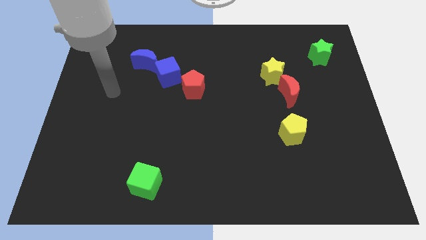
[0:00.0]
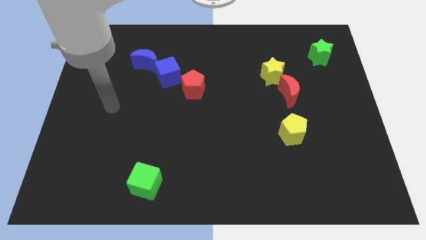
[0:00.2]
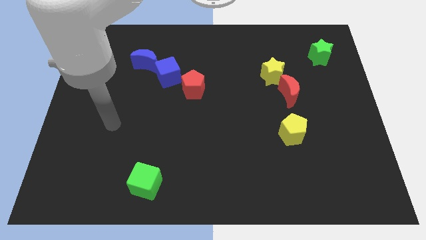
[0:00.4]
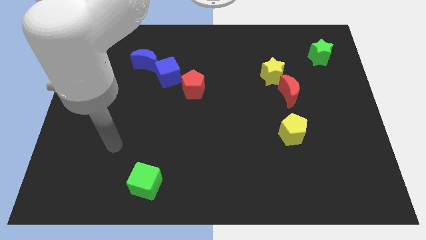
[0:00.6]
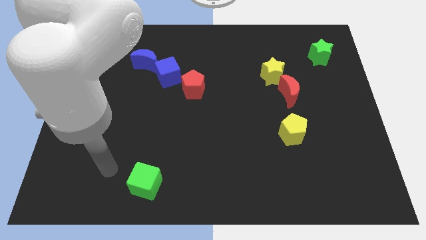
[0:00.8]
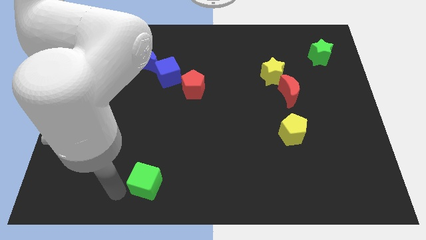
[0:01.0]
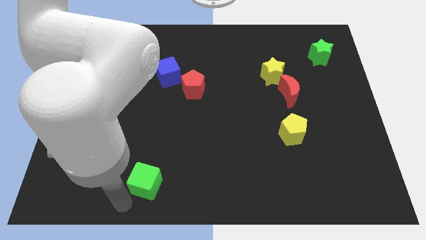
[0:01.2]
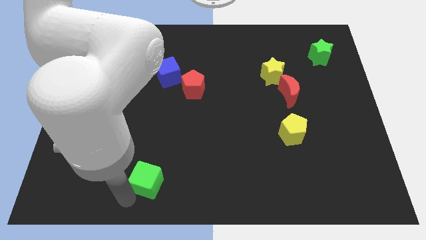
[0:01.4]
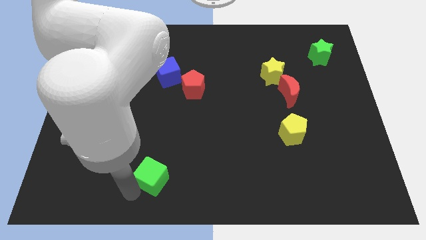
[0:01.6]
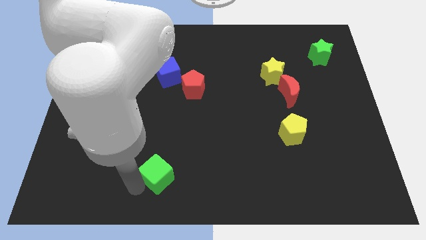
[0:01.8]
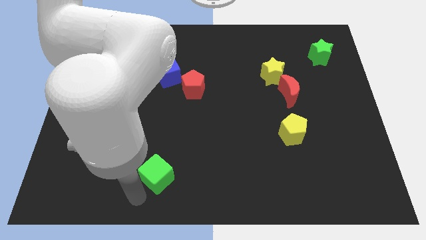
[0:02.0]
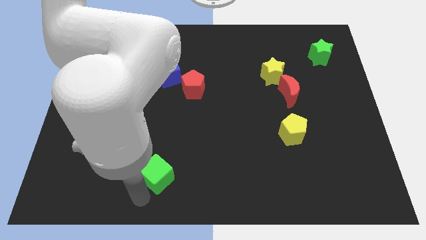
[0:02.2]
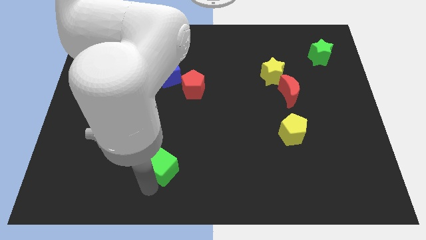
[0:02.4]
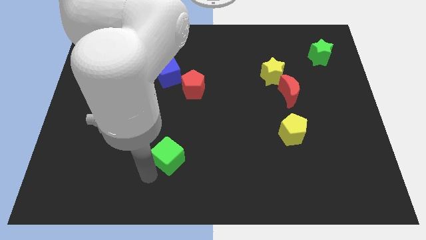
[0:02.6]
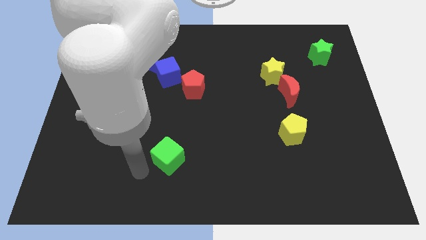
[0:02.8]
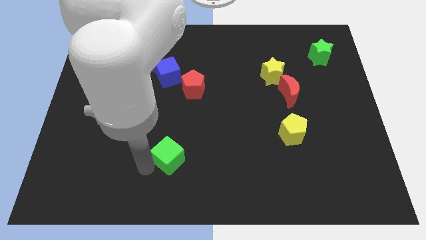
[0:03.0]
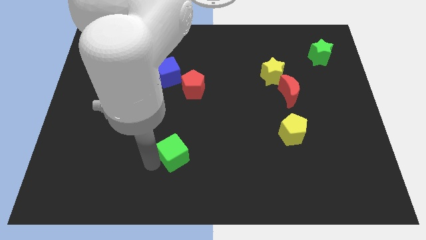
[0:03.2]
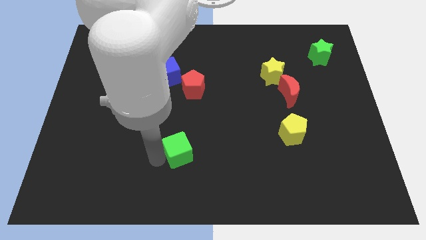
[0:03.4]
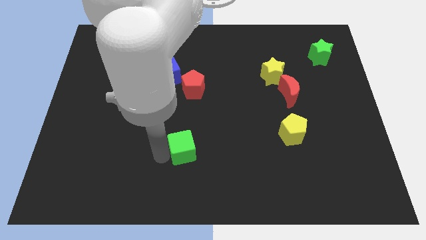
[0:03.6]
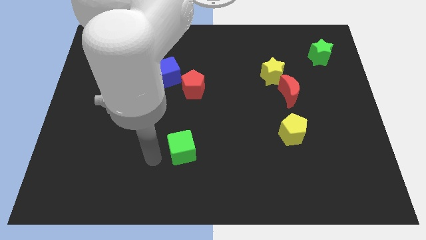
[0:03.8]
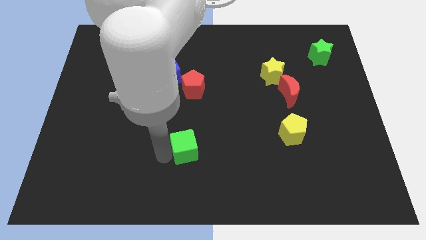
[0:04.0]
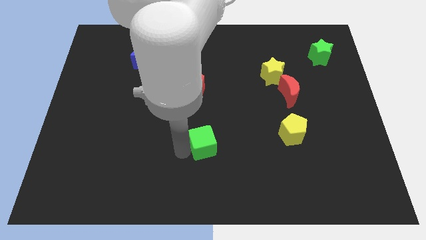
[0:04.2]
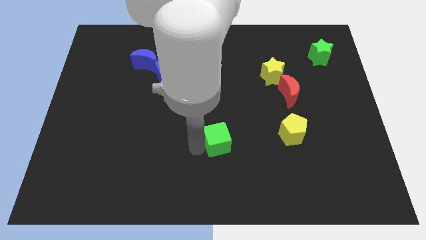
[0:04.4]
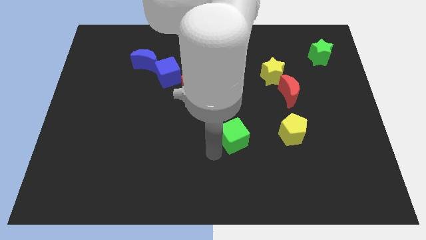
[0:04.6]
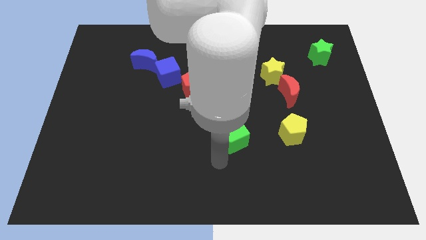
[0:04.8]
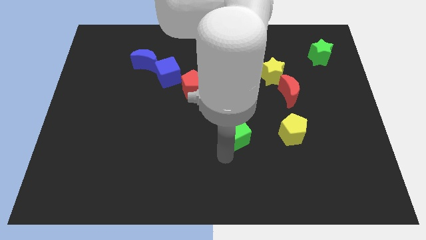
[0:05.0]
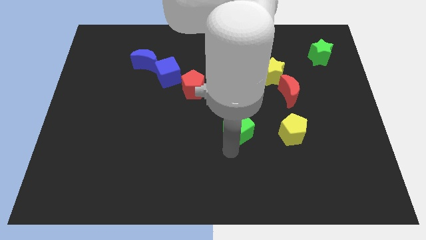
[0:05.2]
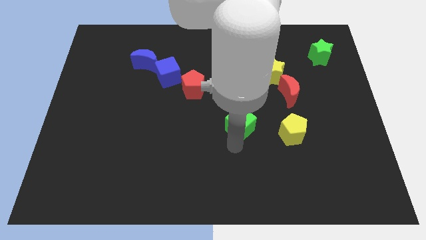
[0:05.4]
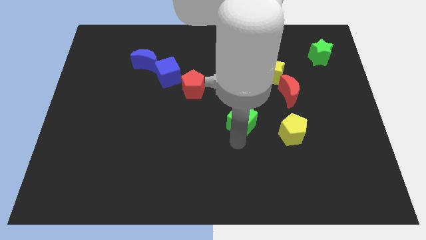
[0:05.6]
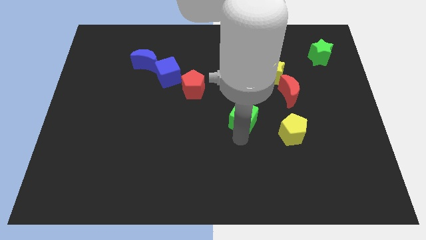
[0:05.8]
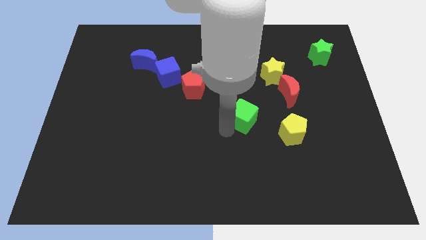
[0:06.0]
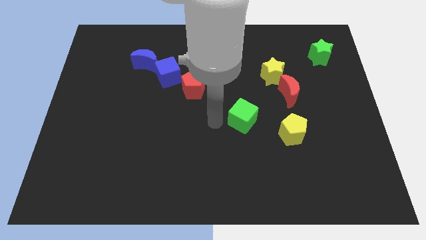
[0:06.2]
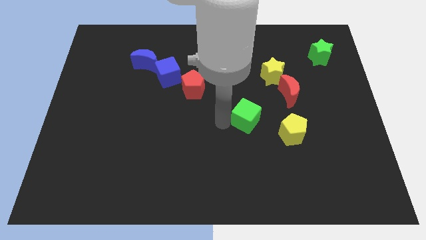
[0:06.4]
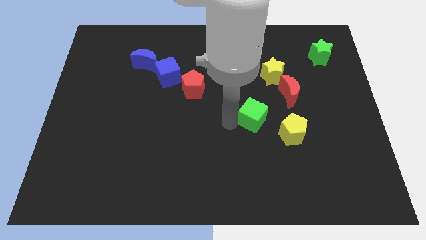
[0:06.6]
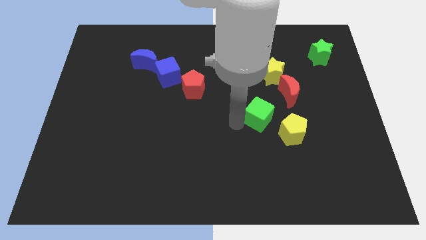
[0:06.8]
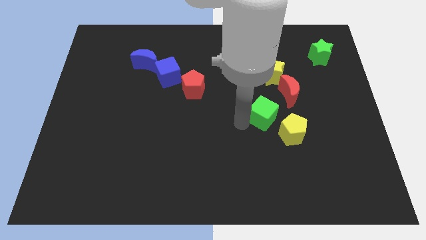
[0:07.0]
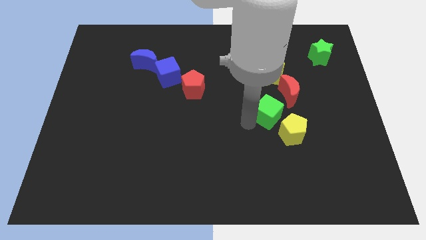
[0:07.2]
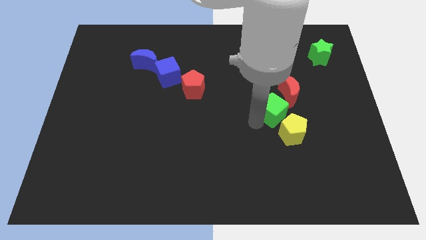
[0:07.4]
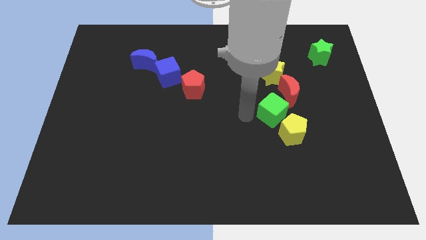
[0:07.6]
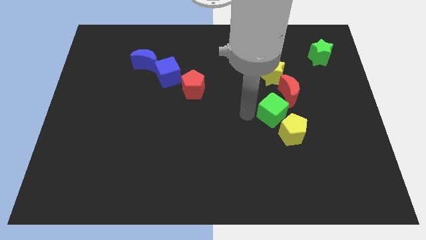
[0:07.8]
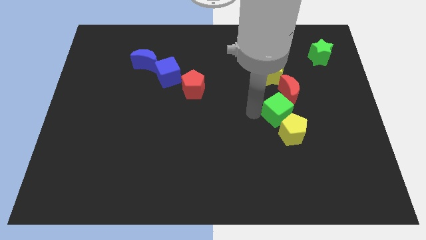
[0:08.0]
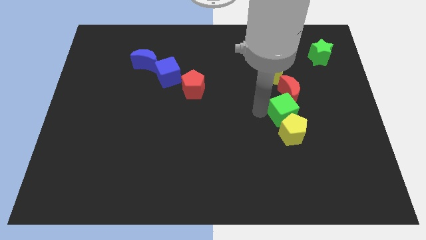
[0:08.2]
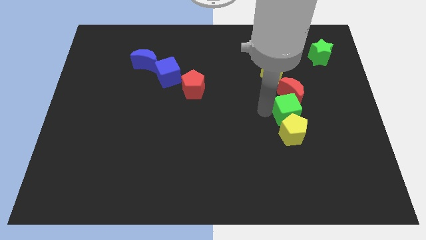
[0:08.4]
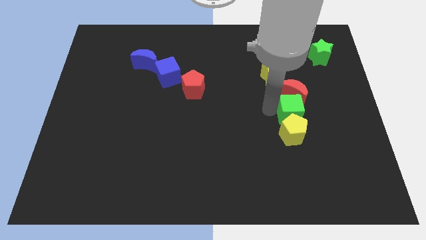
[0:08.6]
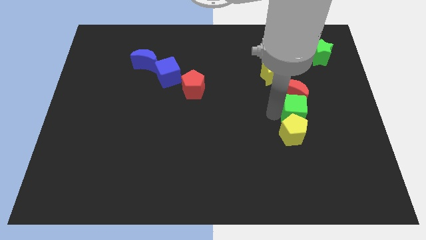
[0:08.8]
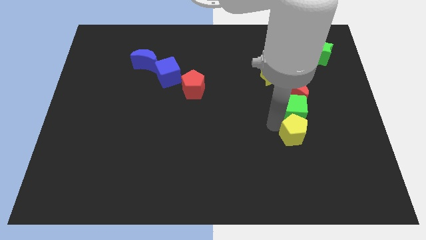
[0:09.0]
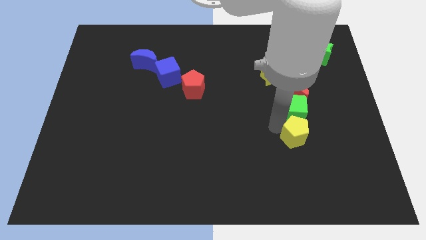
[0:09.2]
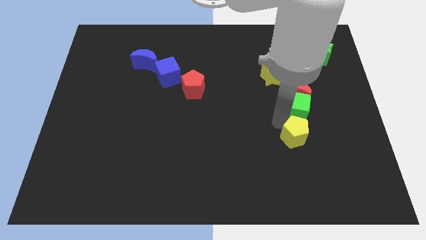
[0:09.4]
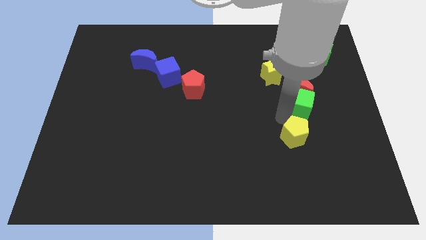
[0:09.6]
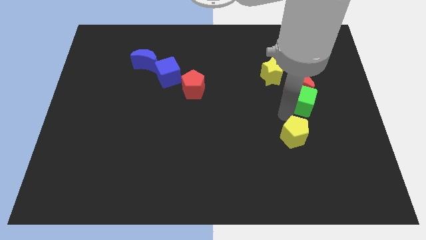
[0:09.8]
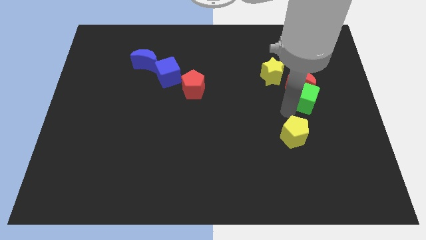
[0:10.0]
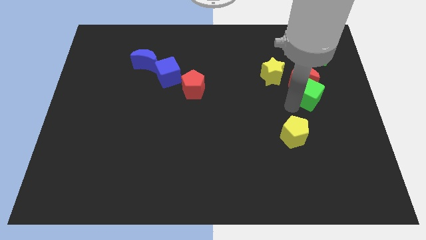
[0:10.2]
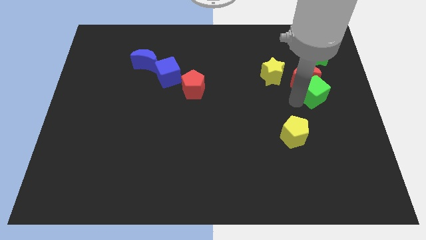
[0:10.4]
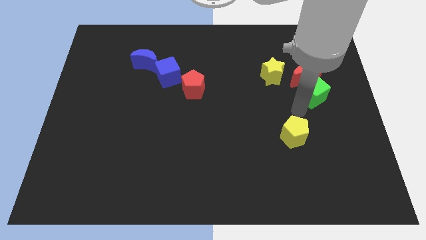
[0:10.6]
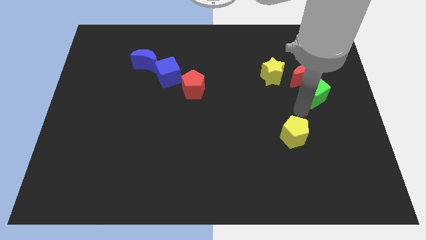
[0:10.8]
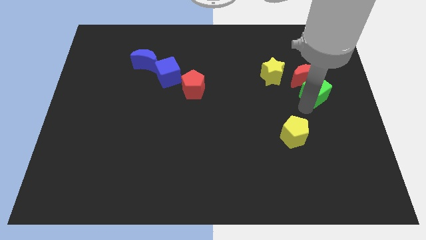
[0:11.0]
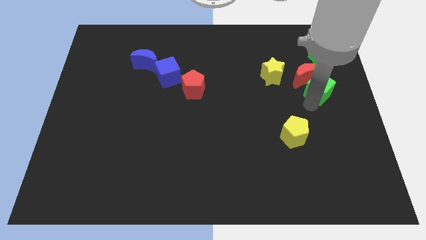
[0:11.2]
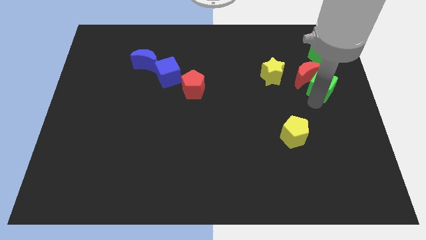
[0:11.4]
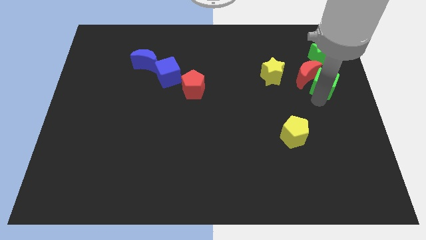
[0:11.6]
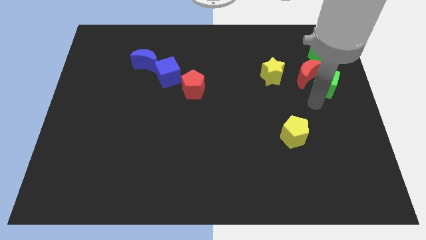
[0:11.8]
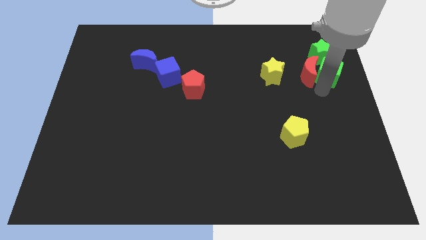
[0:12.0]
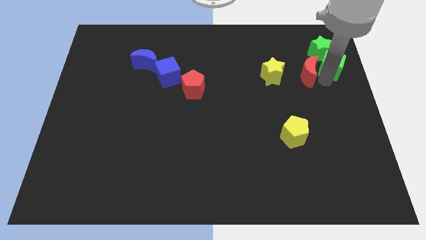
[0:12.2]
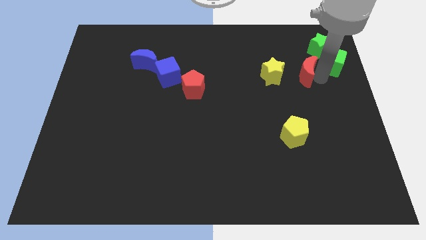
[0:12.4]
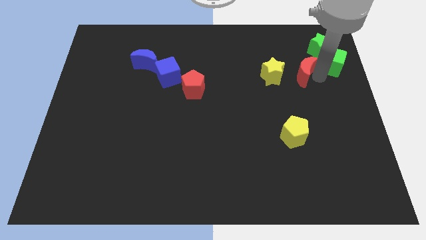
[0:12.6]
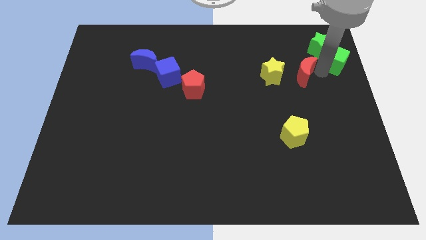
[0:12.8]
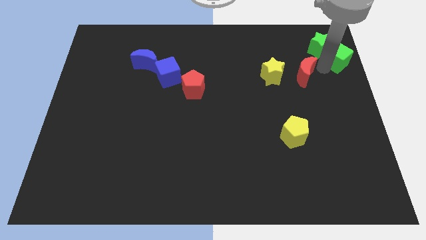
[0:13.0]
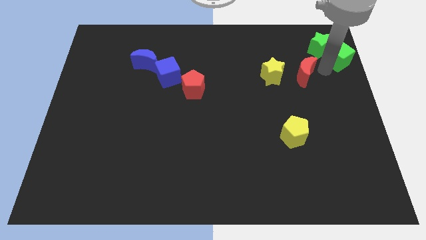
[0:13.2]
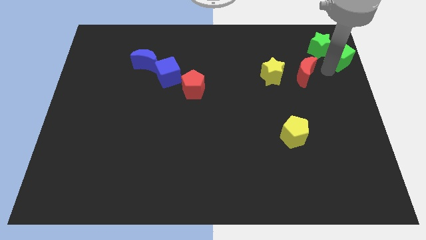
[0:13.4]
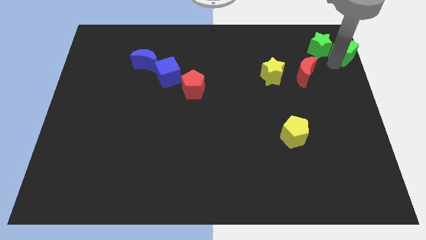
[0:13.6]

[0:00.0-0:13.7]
push the green cube to the top right

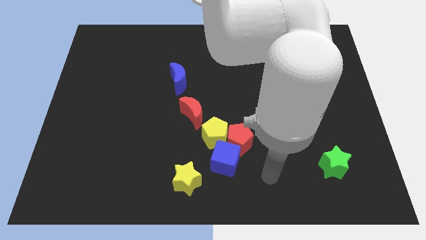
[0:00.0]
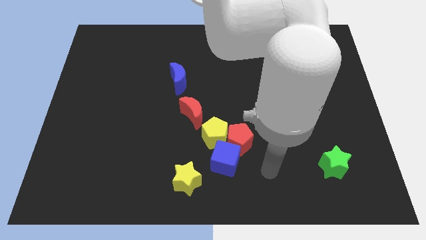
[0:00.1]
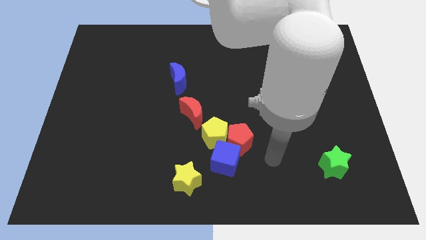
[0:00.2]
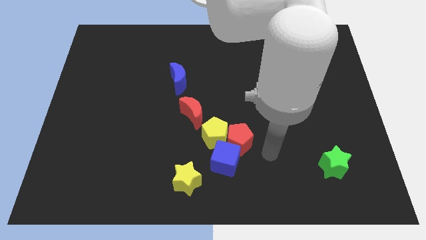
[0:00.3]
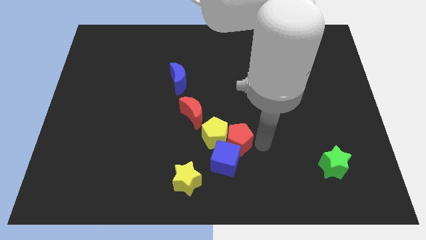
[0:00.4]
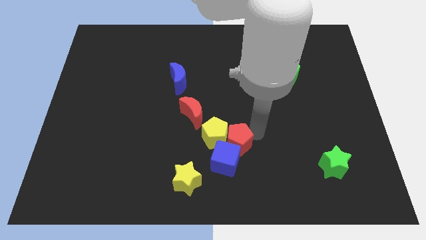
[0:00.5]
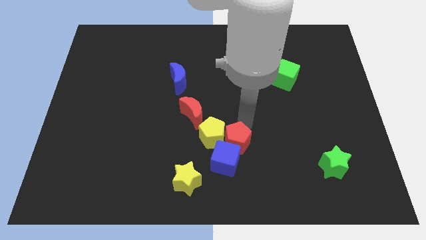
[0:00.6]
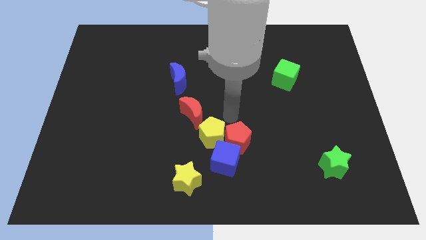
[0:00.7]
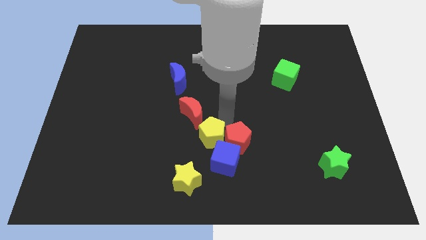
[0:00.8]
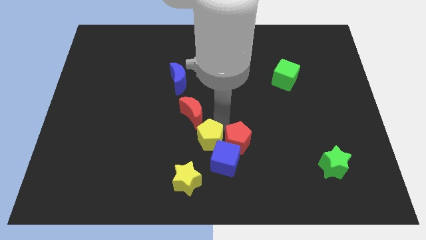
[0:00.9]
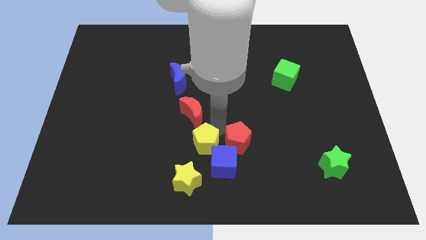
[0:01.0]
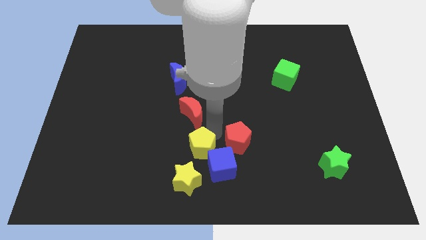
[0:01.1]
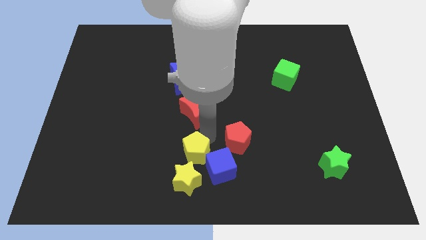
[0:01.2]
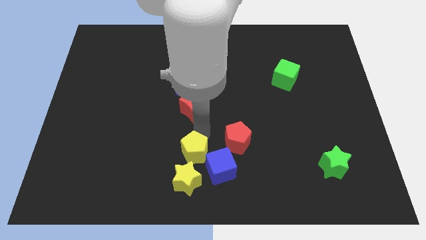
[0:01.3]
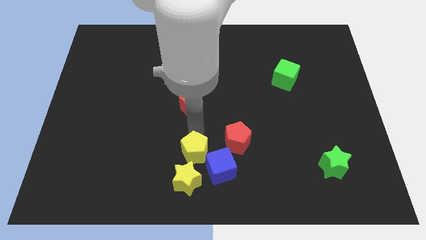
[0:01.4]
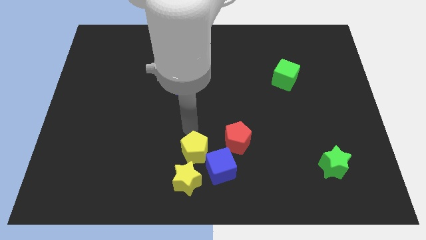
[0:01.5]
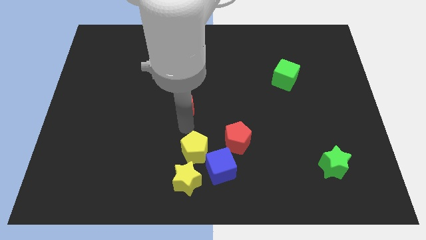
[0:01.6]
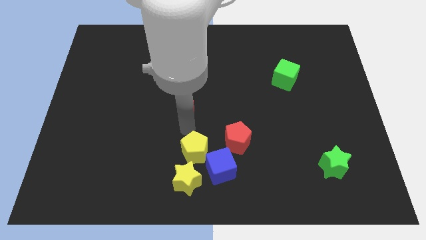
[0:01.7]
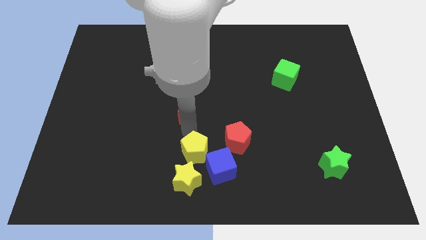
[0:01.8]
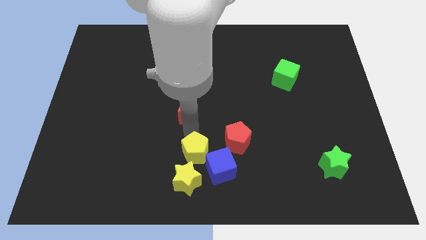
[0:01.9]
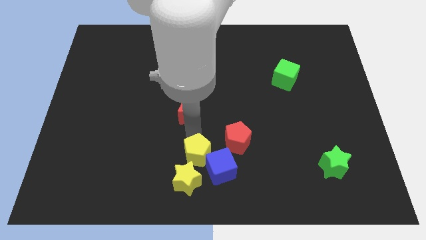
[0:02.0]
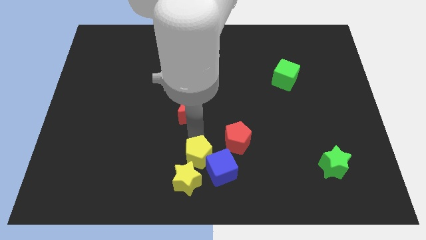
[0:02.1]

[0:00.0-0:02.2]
put the yellow pentagon to the bottom
